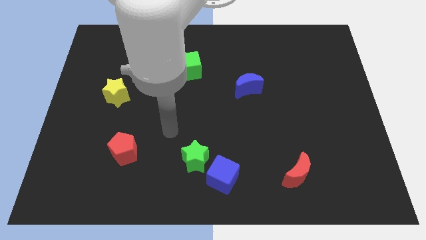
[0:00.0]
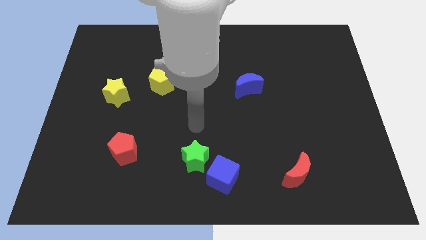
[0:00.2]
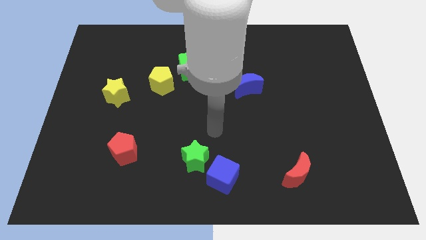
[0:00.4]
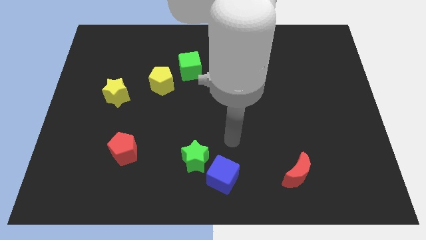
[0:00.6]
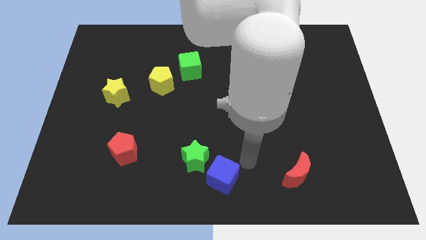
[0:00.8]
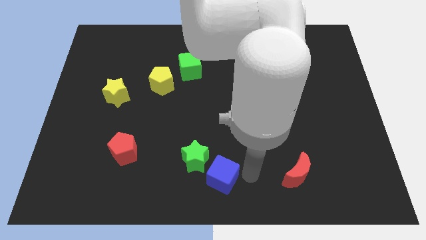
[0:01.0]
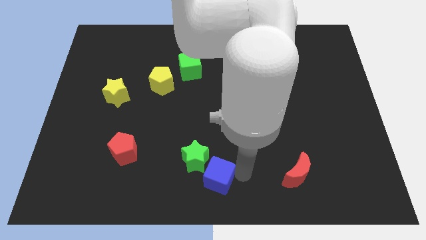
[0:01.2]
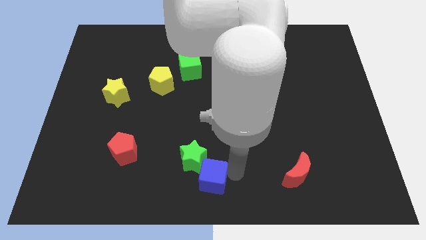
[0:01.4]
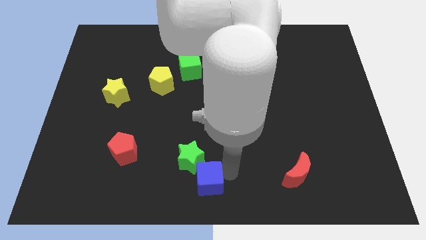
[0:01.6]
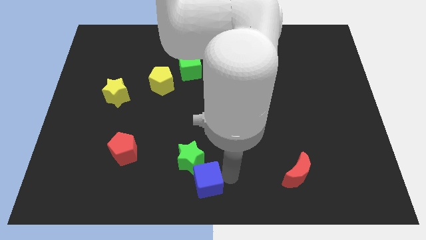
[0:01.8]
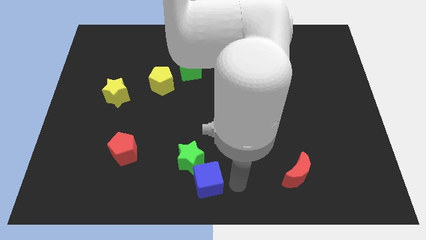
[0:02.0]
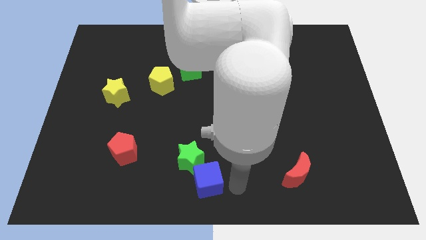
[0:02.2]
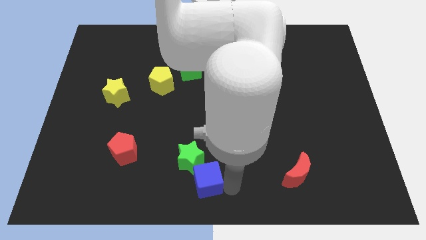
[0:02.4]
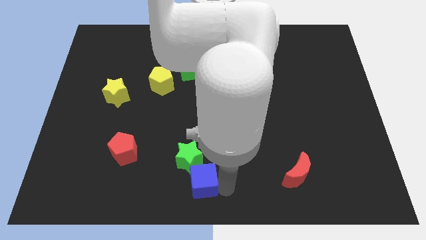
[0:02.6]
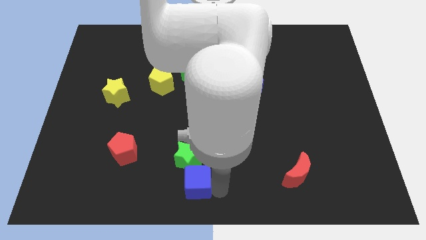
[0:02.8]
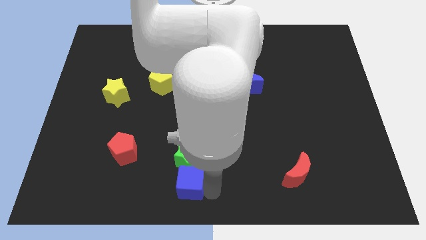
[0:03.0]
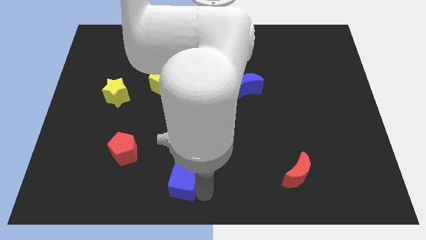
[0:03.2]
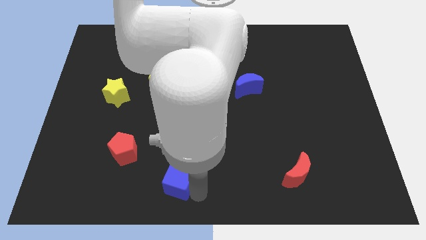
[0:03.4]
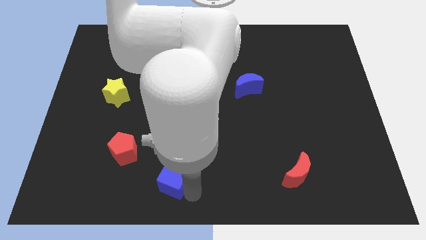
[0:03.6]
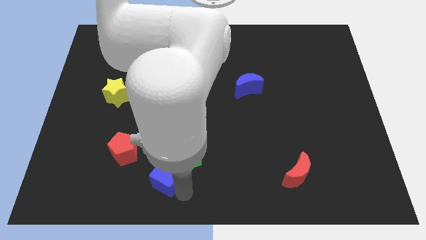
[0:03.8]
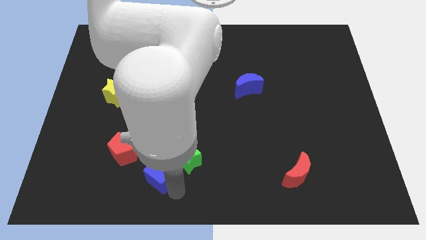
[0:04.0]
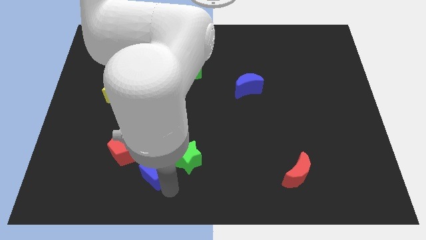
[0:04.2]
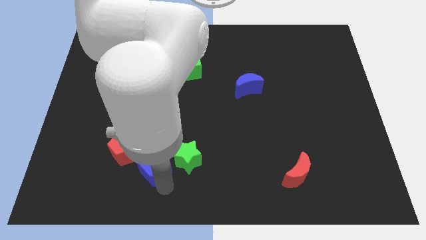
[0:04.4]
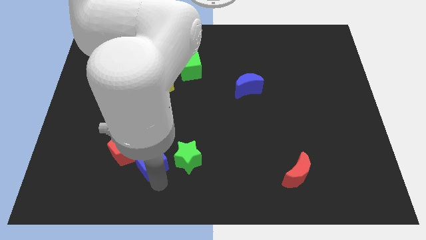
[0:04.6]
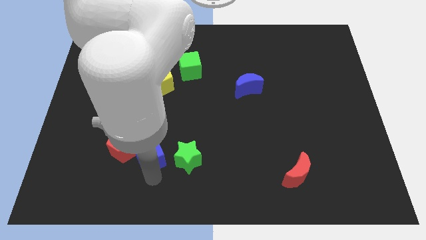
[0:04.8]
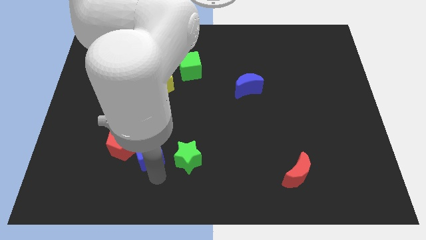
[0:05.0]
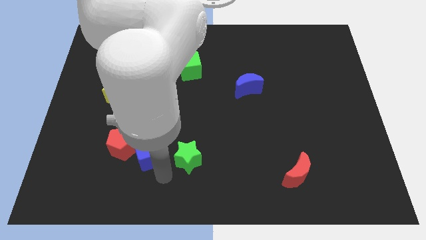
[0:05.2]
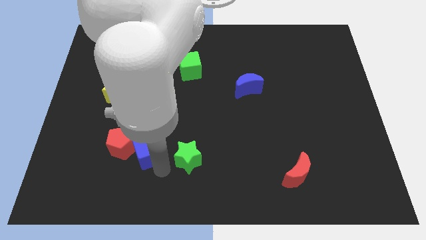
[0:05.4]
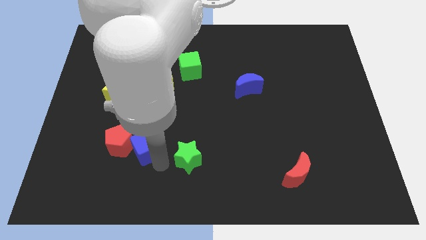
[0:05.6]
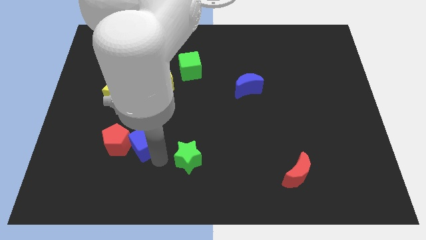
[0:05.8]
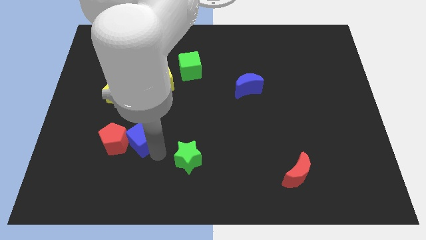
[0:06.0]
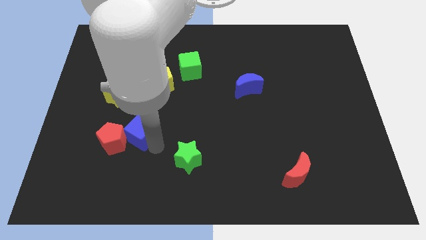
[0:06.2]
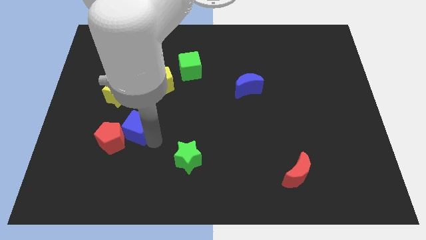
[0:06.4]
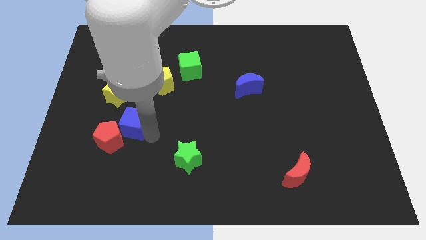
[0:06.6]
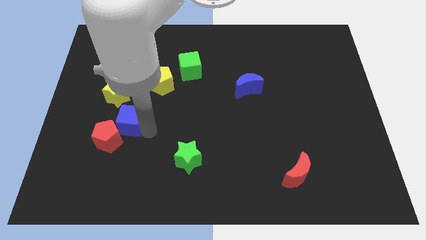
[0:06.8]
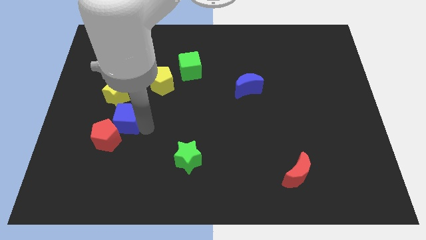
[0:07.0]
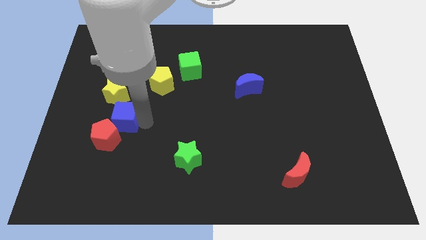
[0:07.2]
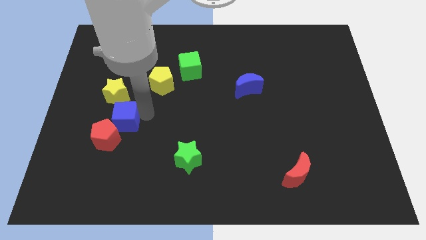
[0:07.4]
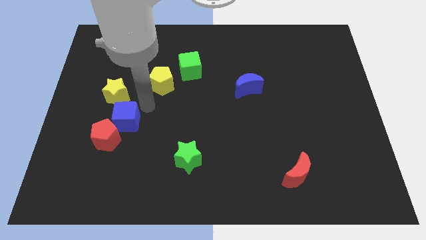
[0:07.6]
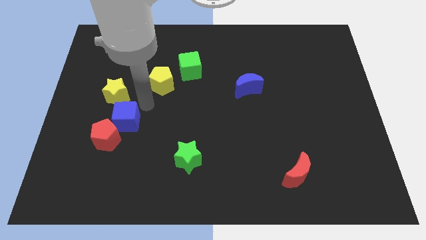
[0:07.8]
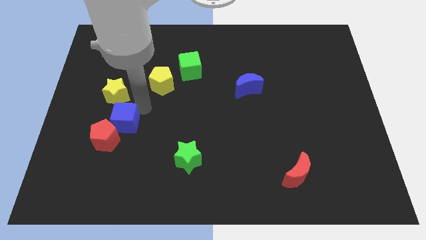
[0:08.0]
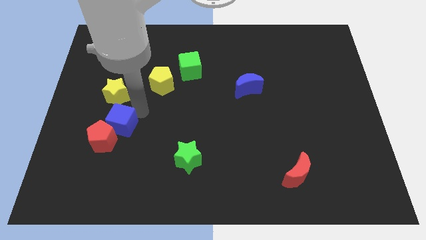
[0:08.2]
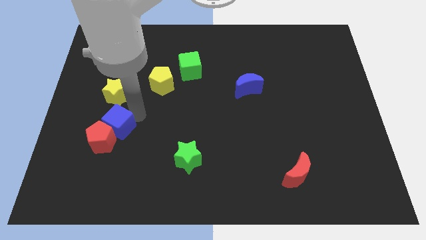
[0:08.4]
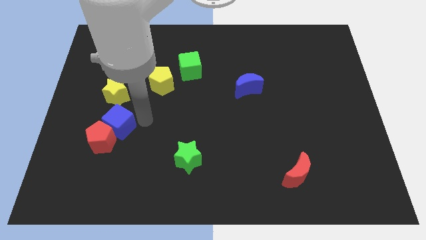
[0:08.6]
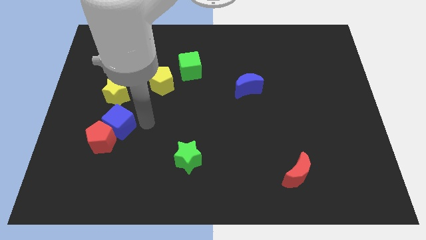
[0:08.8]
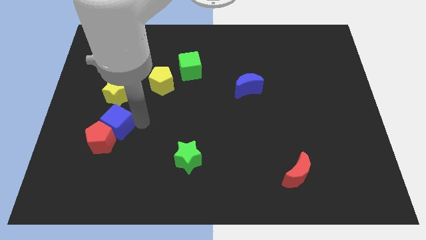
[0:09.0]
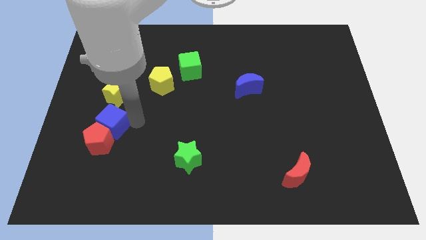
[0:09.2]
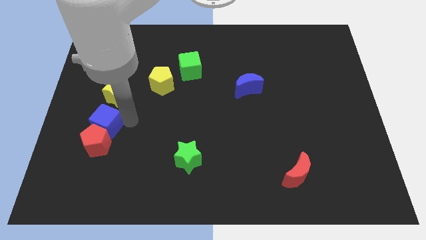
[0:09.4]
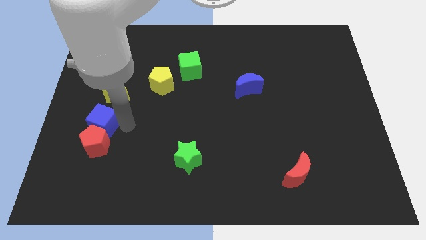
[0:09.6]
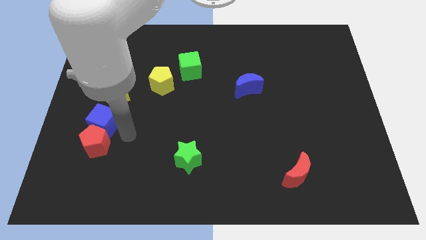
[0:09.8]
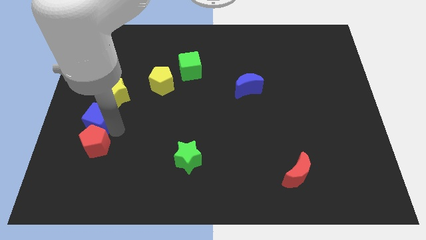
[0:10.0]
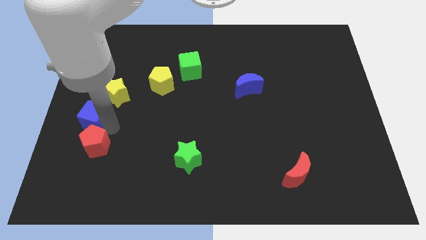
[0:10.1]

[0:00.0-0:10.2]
slide the blue cube to the left side of the board

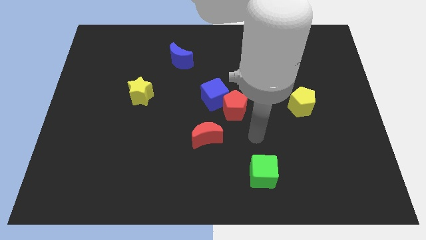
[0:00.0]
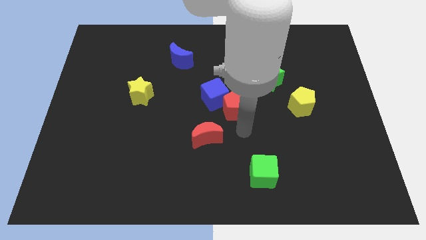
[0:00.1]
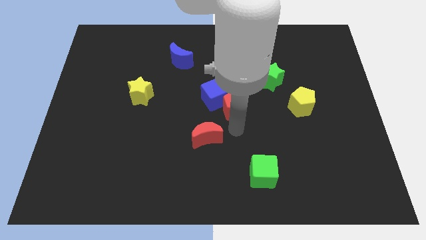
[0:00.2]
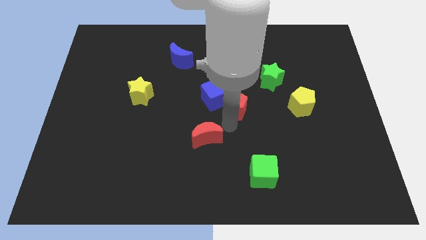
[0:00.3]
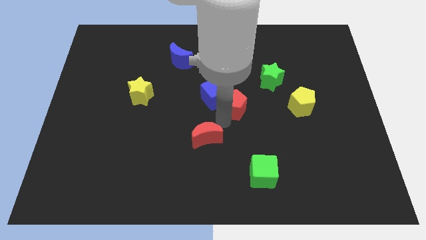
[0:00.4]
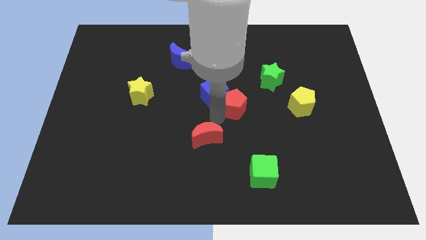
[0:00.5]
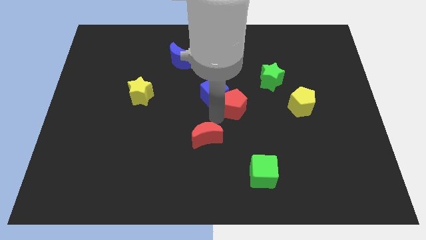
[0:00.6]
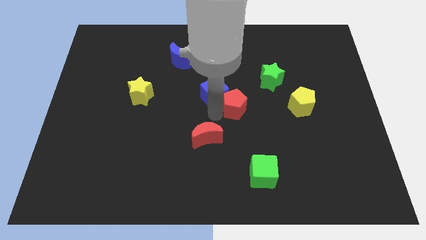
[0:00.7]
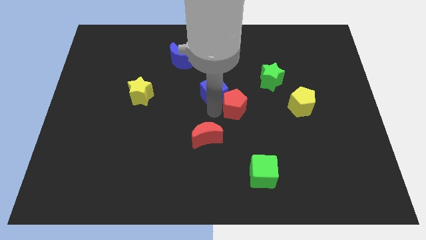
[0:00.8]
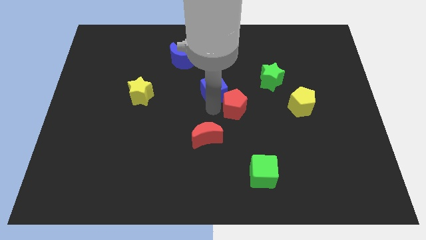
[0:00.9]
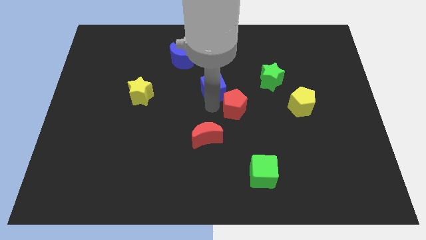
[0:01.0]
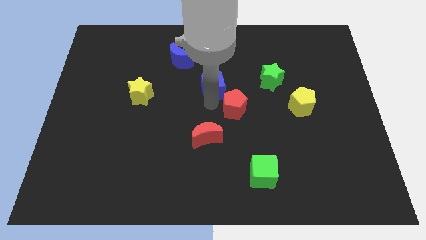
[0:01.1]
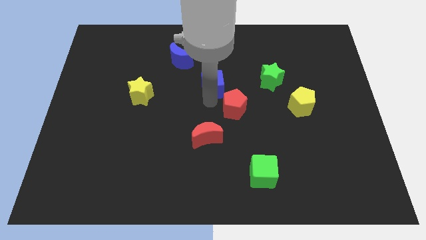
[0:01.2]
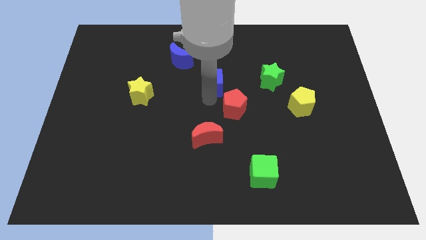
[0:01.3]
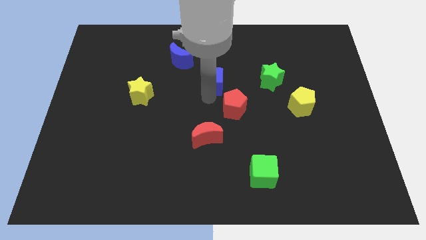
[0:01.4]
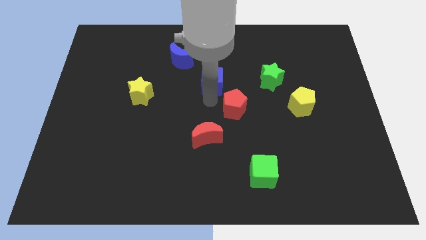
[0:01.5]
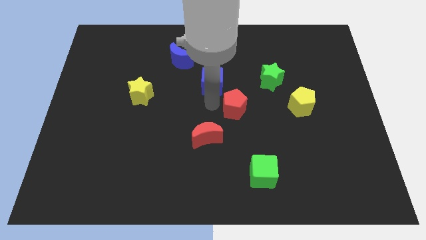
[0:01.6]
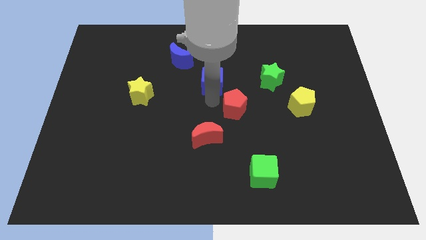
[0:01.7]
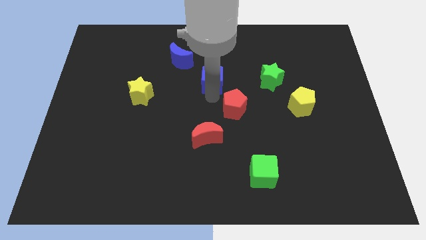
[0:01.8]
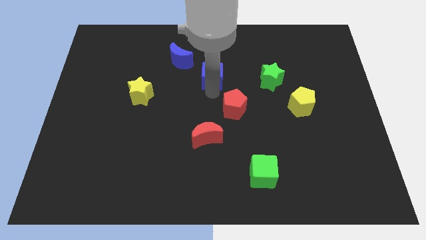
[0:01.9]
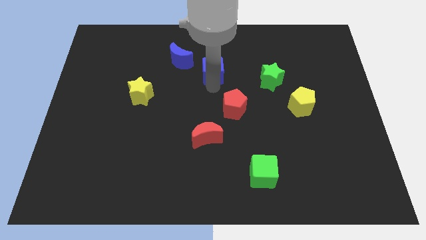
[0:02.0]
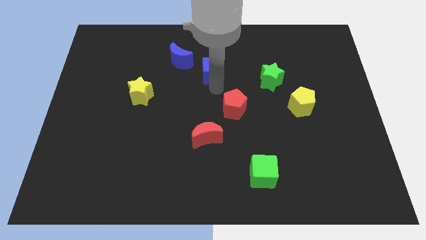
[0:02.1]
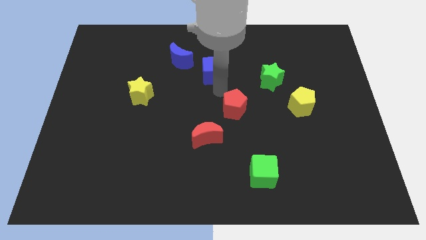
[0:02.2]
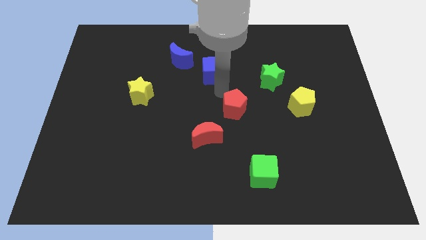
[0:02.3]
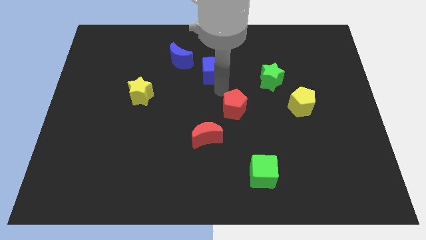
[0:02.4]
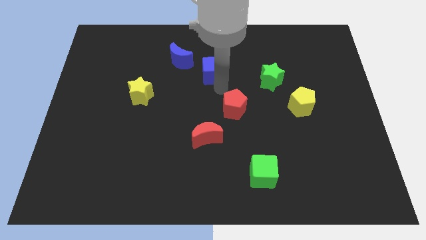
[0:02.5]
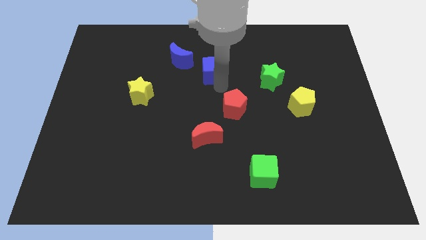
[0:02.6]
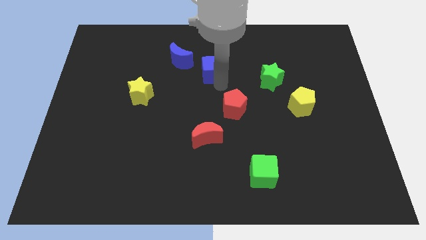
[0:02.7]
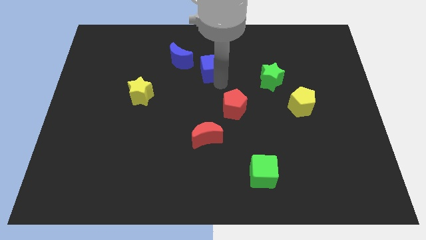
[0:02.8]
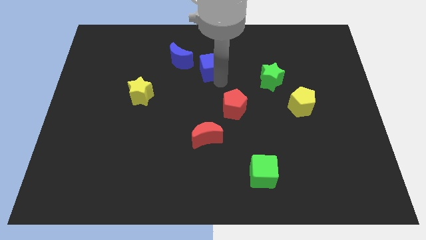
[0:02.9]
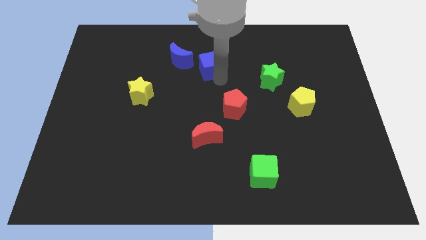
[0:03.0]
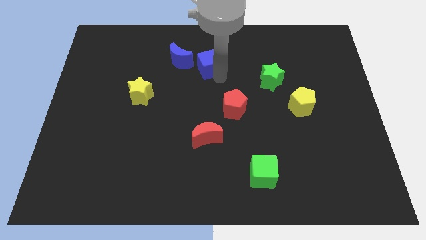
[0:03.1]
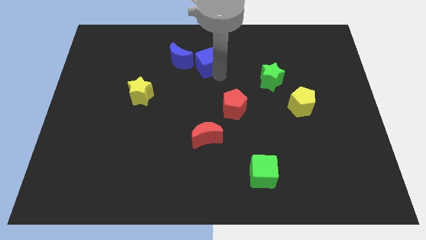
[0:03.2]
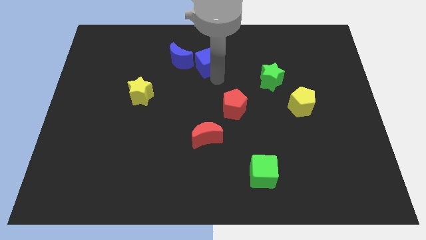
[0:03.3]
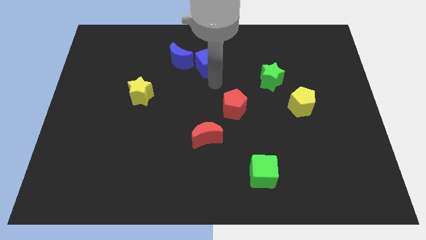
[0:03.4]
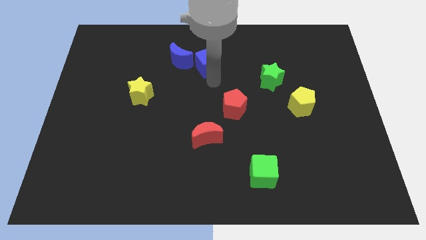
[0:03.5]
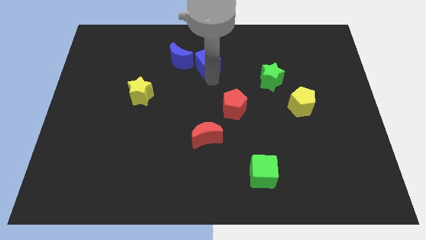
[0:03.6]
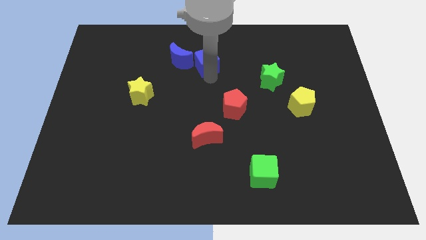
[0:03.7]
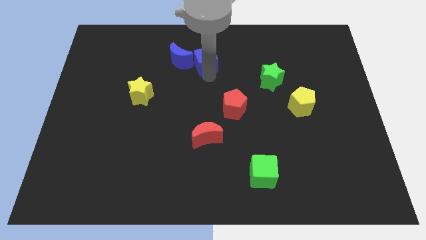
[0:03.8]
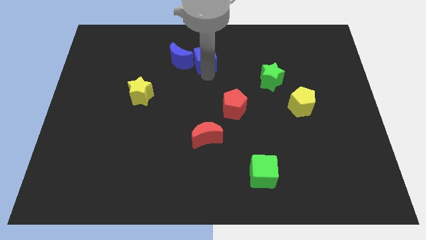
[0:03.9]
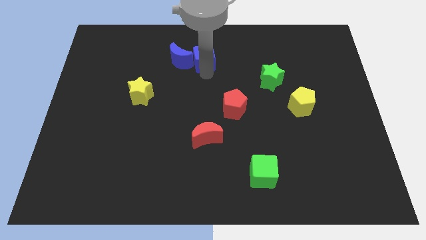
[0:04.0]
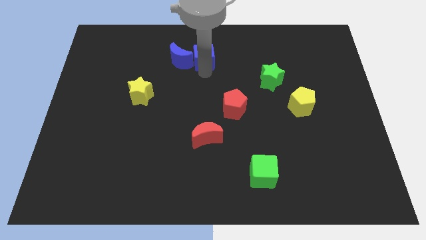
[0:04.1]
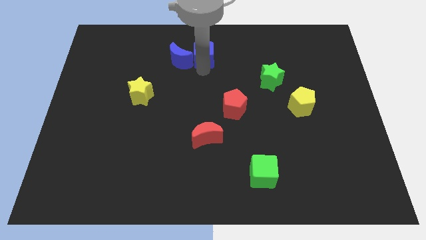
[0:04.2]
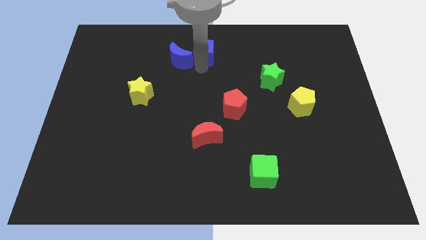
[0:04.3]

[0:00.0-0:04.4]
move the blue cube to the towards your base
